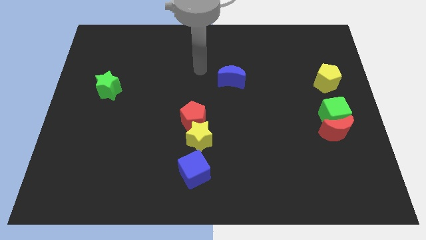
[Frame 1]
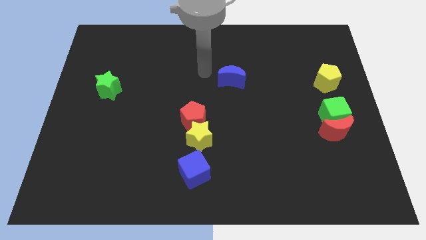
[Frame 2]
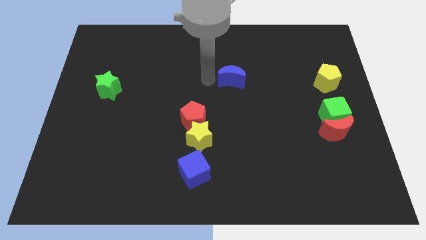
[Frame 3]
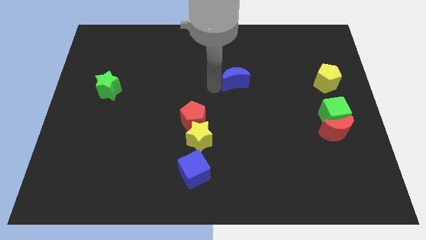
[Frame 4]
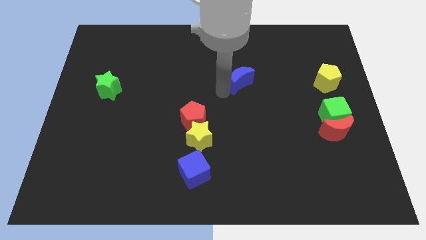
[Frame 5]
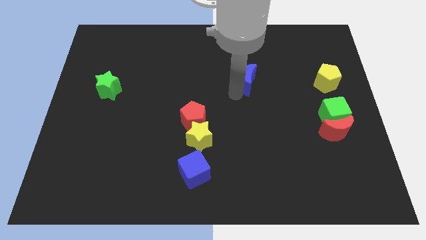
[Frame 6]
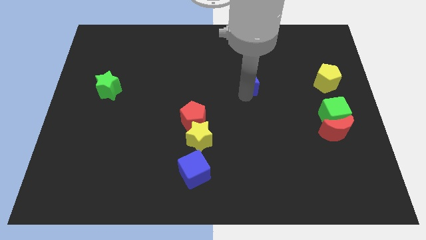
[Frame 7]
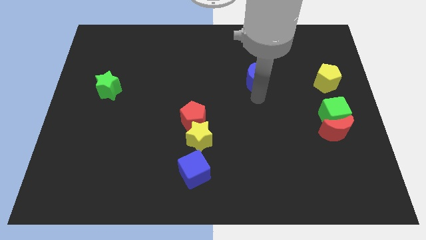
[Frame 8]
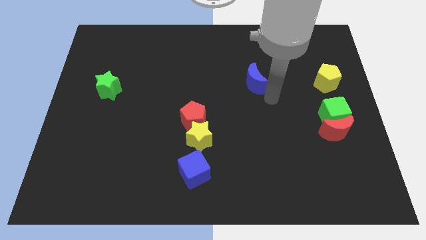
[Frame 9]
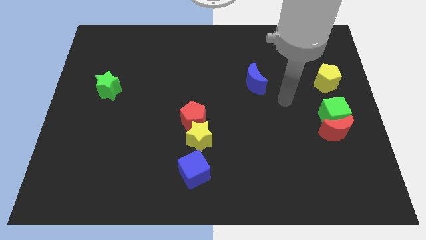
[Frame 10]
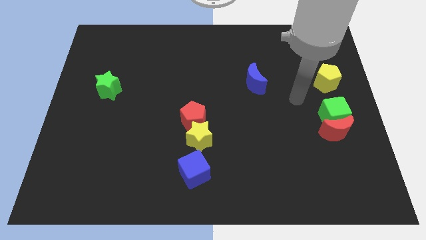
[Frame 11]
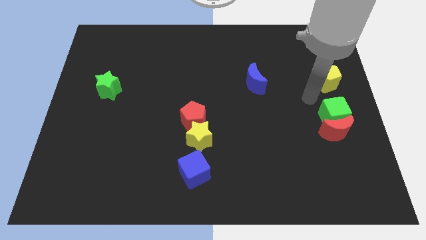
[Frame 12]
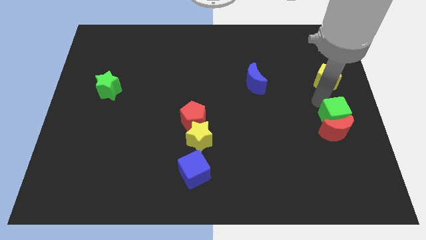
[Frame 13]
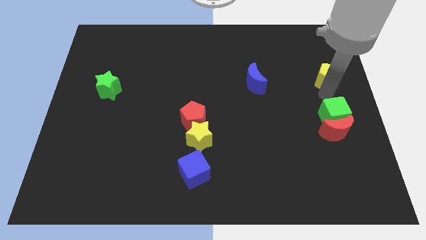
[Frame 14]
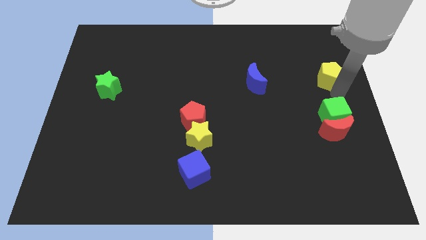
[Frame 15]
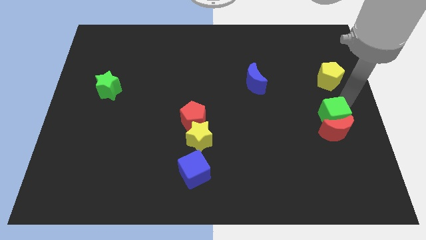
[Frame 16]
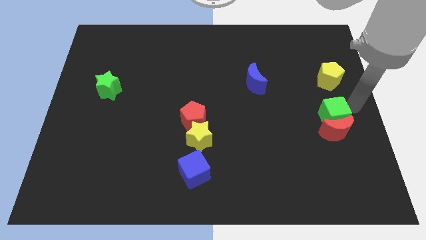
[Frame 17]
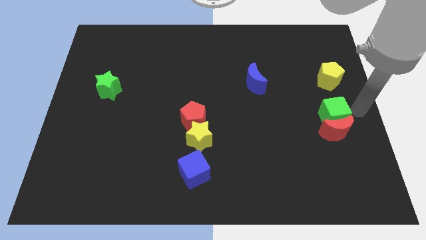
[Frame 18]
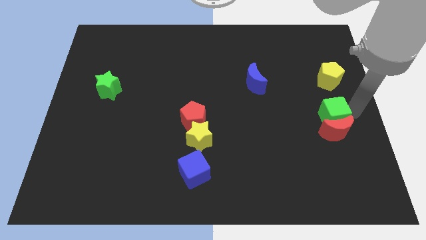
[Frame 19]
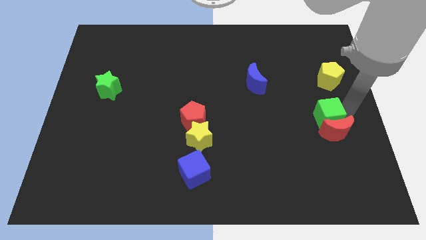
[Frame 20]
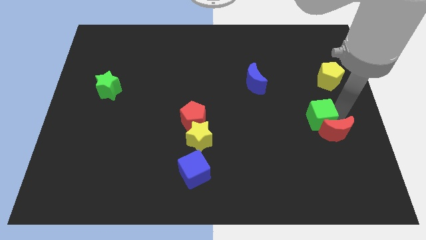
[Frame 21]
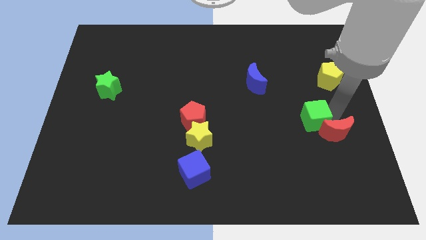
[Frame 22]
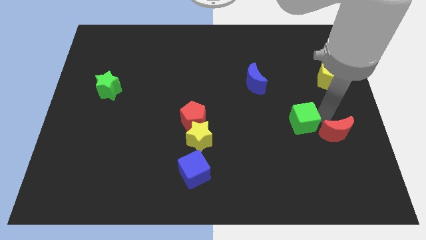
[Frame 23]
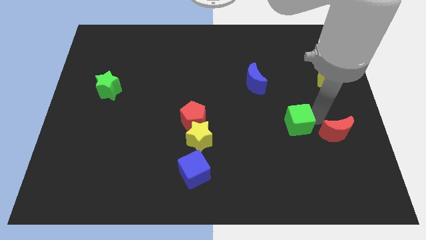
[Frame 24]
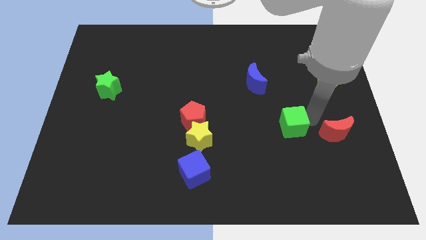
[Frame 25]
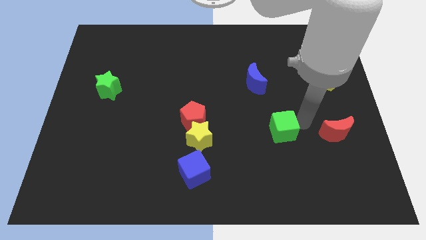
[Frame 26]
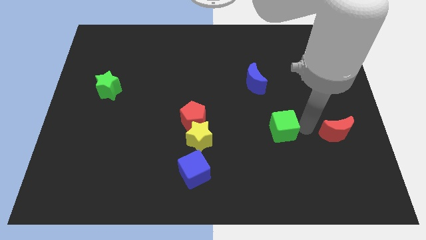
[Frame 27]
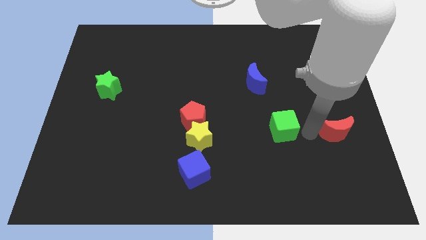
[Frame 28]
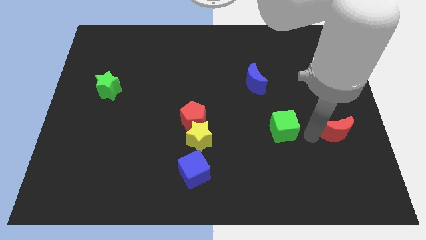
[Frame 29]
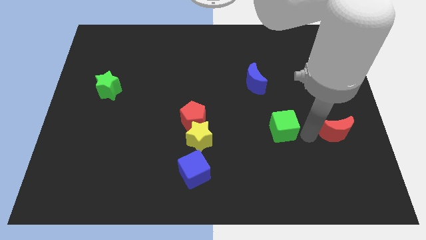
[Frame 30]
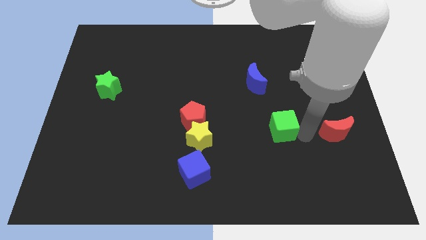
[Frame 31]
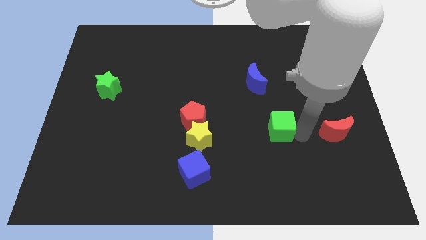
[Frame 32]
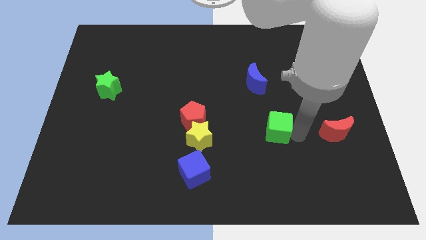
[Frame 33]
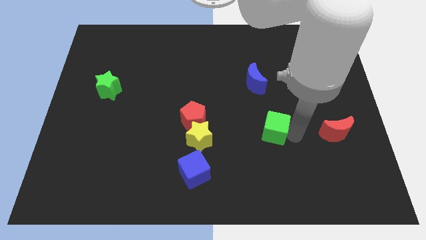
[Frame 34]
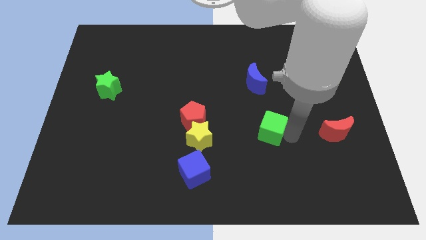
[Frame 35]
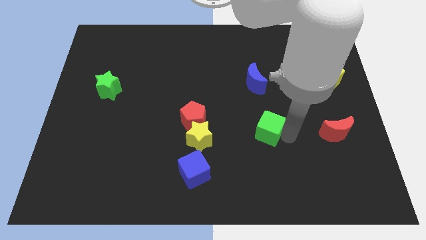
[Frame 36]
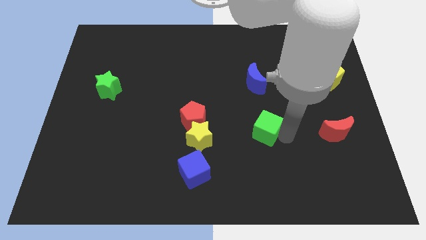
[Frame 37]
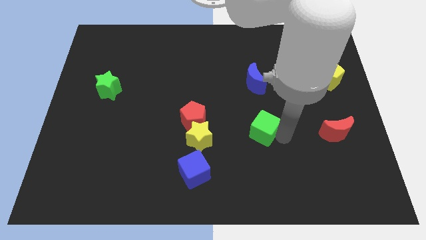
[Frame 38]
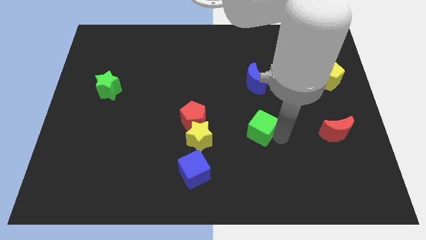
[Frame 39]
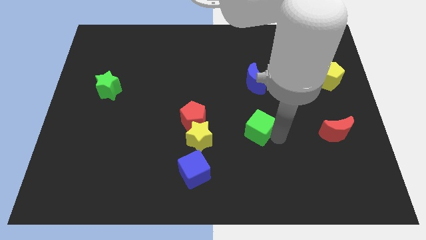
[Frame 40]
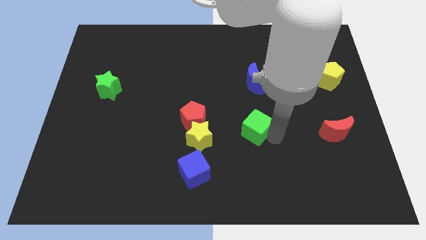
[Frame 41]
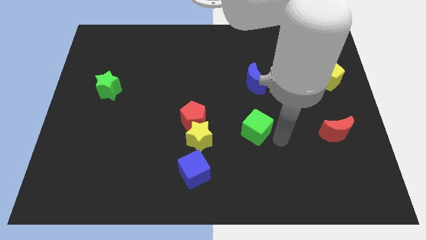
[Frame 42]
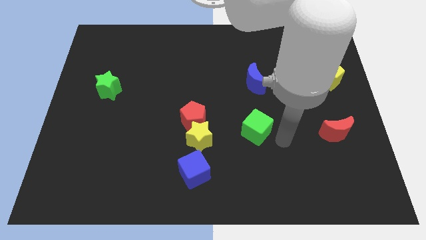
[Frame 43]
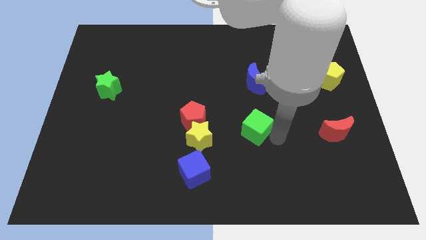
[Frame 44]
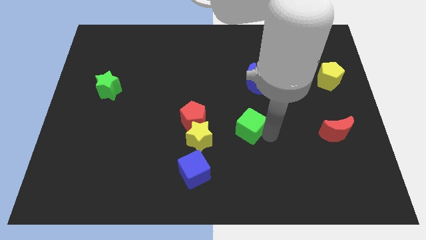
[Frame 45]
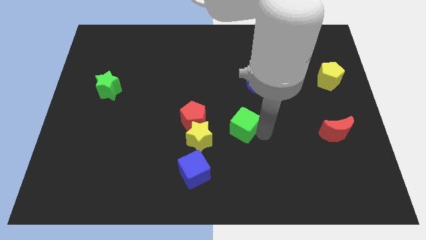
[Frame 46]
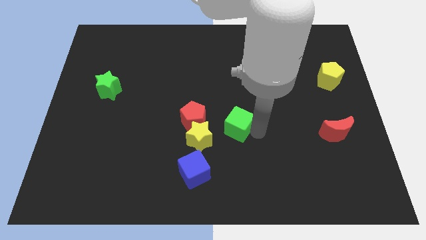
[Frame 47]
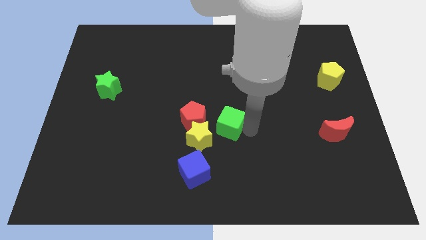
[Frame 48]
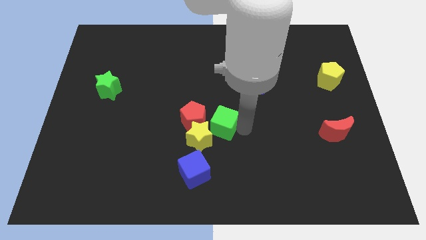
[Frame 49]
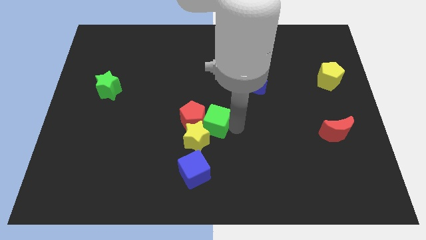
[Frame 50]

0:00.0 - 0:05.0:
put the green cube to the red pentagon

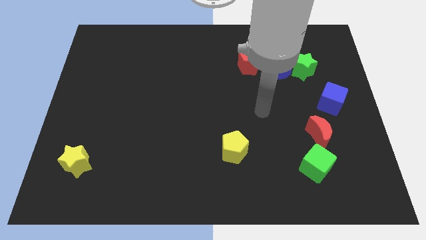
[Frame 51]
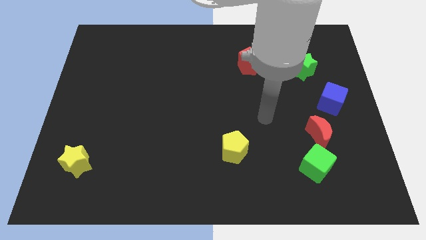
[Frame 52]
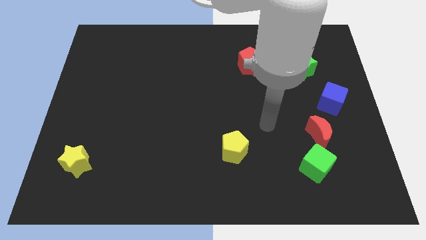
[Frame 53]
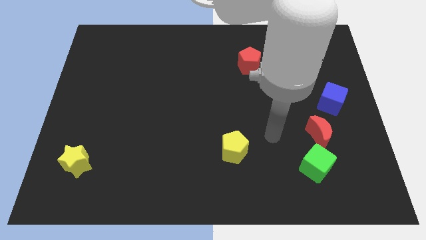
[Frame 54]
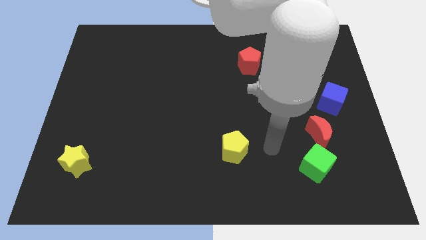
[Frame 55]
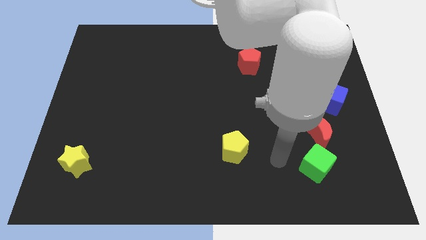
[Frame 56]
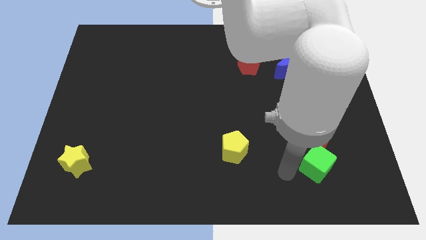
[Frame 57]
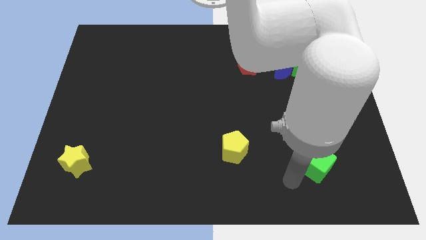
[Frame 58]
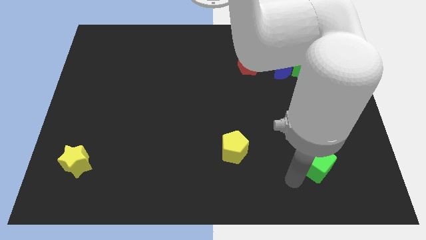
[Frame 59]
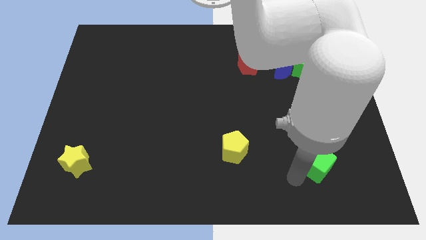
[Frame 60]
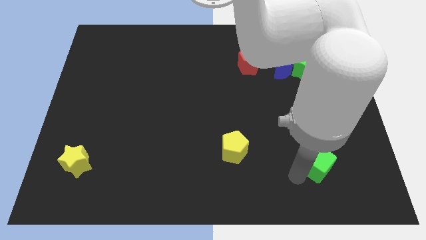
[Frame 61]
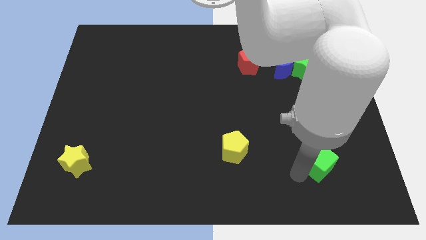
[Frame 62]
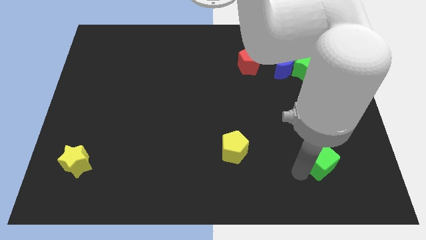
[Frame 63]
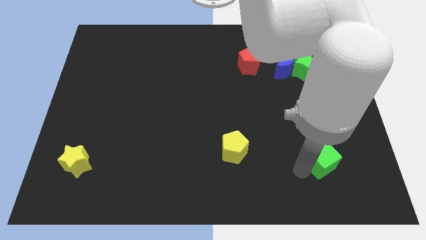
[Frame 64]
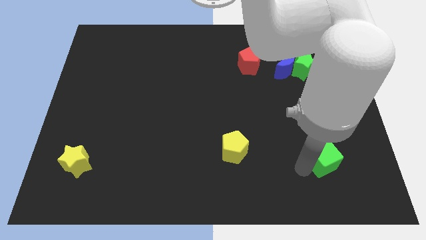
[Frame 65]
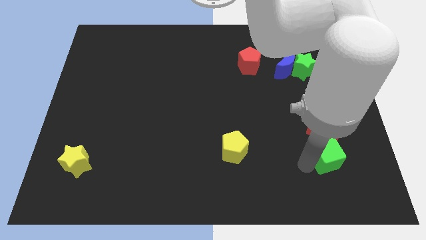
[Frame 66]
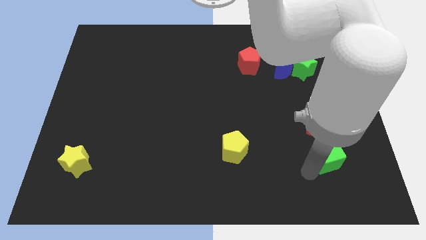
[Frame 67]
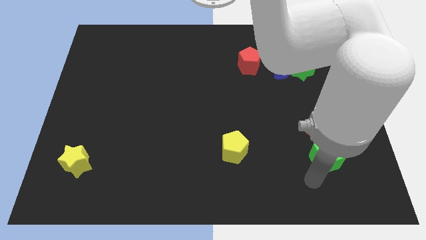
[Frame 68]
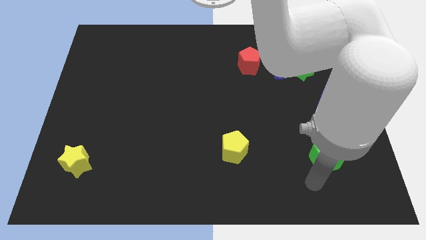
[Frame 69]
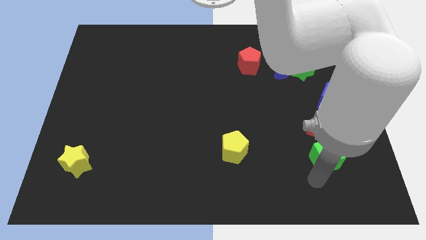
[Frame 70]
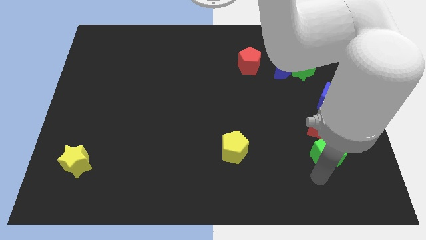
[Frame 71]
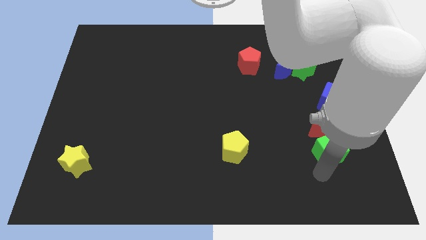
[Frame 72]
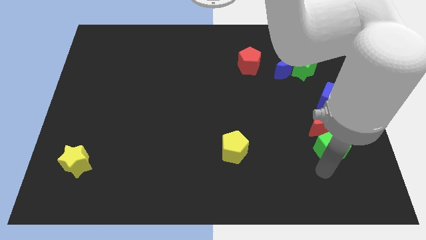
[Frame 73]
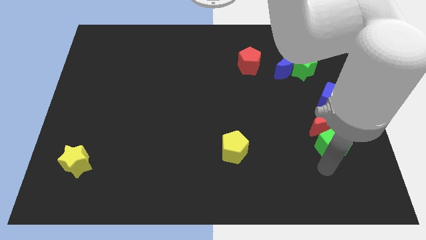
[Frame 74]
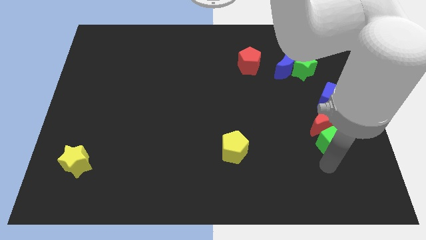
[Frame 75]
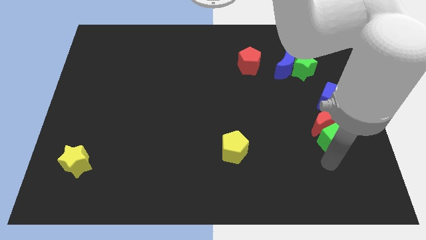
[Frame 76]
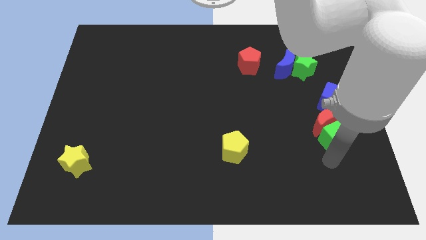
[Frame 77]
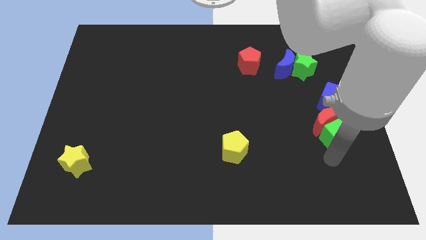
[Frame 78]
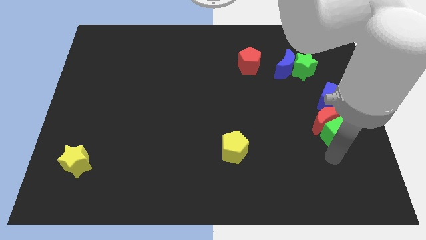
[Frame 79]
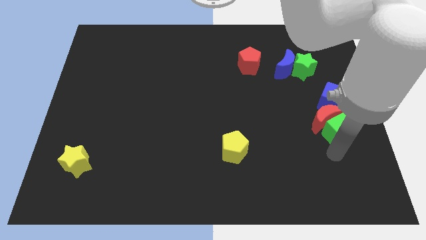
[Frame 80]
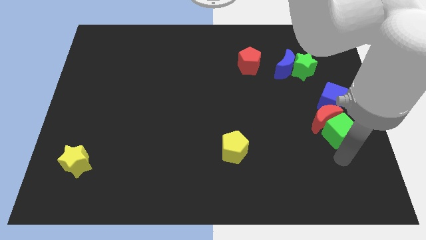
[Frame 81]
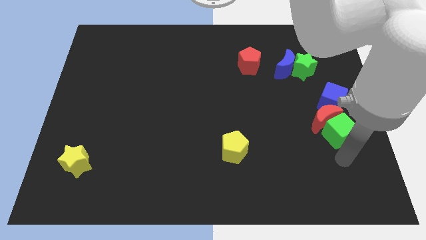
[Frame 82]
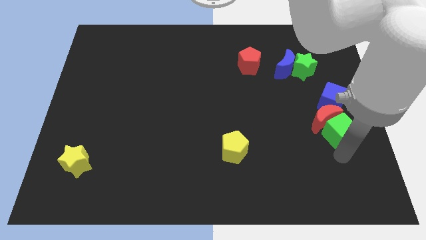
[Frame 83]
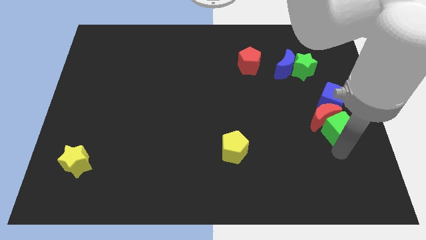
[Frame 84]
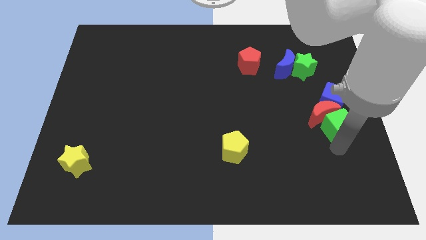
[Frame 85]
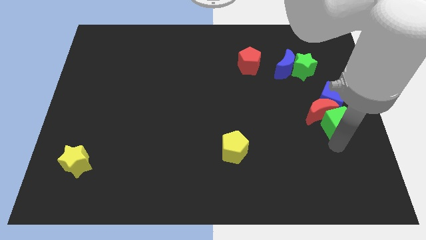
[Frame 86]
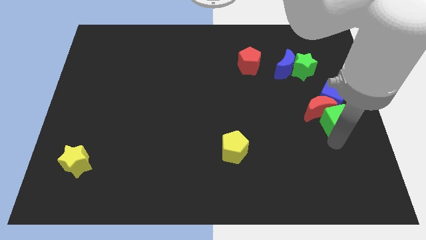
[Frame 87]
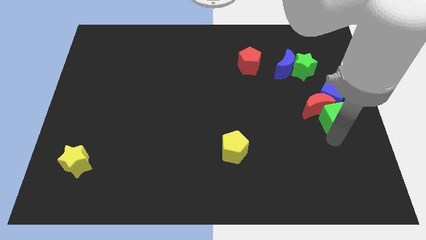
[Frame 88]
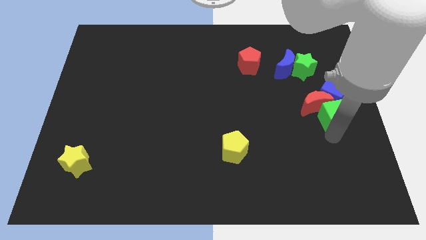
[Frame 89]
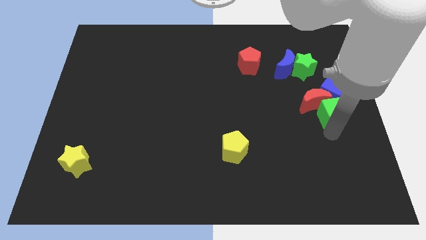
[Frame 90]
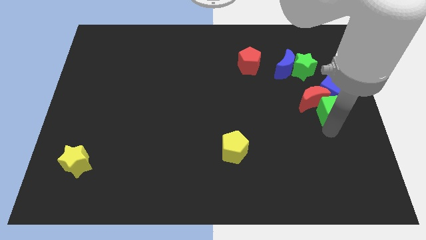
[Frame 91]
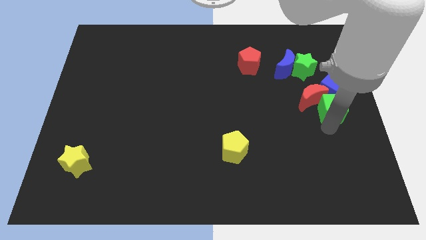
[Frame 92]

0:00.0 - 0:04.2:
push the green cube next to the blue cube
